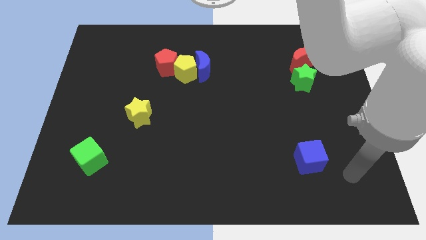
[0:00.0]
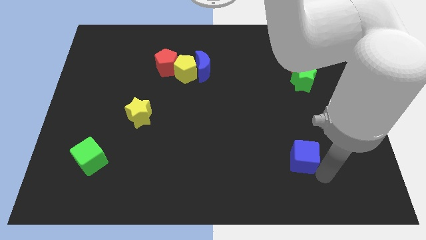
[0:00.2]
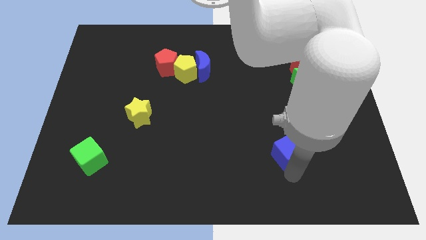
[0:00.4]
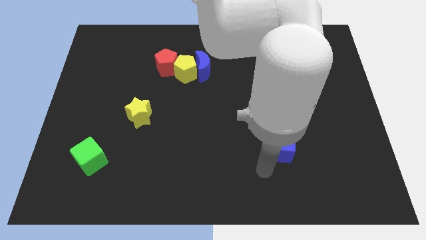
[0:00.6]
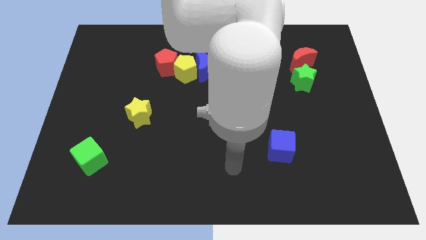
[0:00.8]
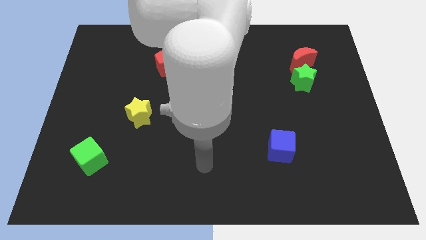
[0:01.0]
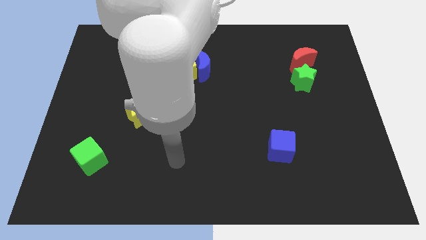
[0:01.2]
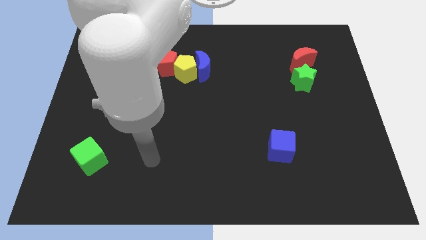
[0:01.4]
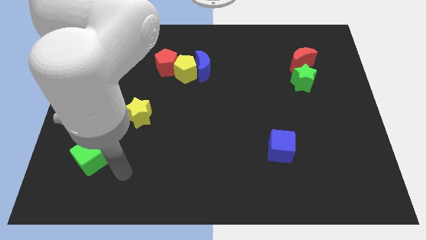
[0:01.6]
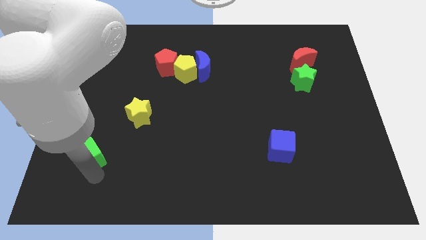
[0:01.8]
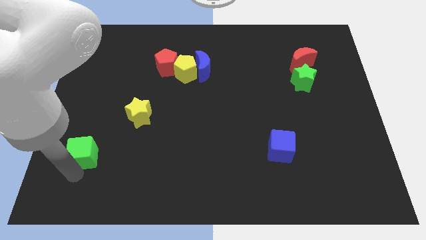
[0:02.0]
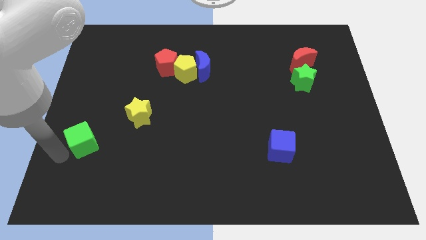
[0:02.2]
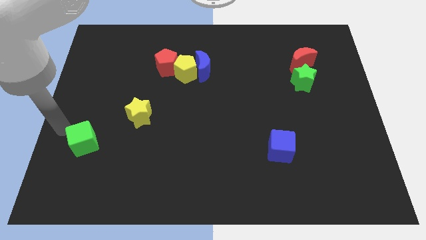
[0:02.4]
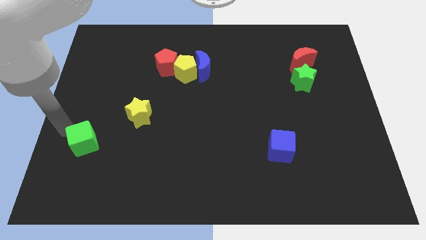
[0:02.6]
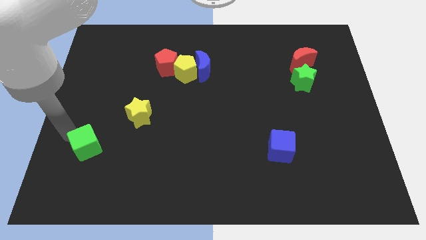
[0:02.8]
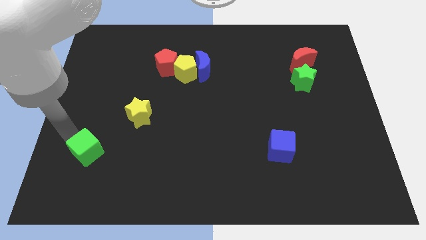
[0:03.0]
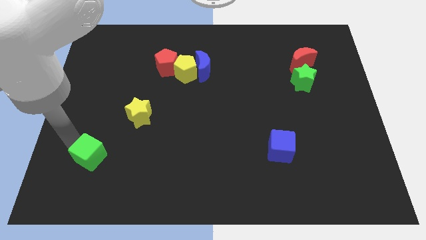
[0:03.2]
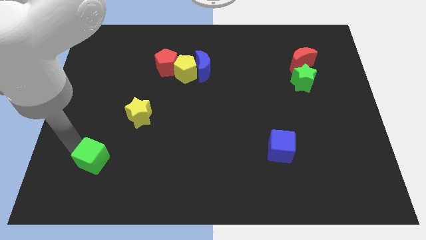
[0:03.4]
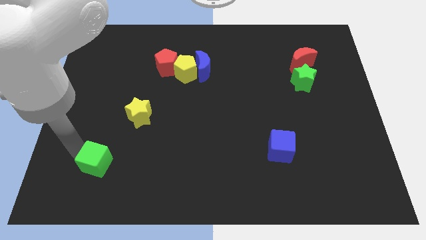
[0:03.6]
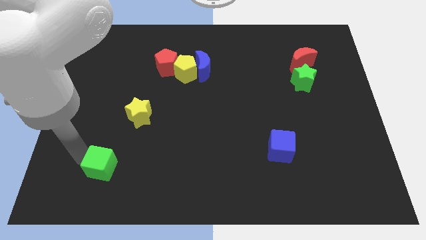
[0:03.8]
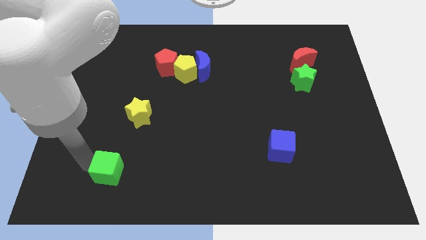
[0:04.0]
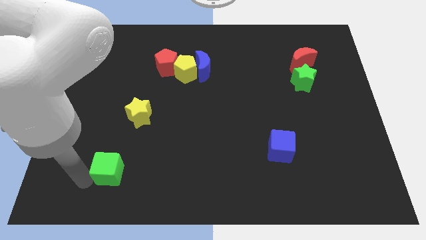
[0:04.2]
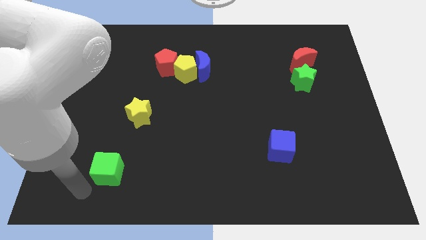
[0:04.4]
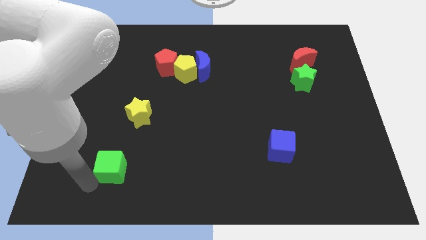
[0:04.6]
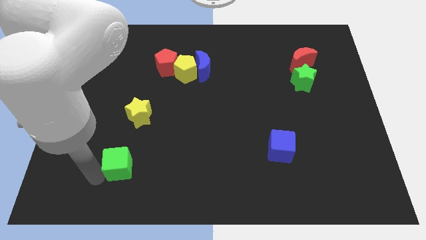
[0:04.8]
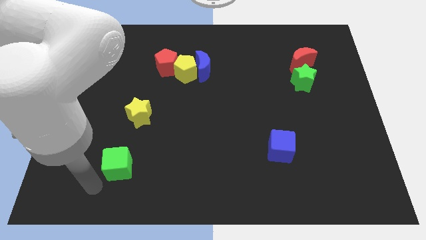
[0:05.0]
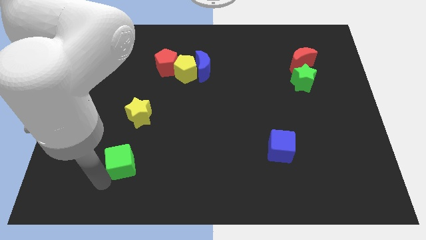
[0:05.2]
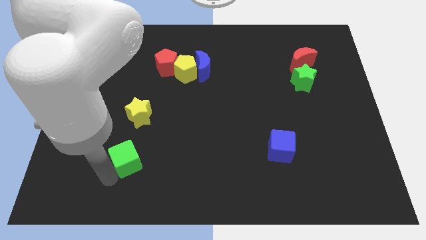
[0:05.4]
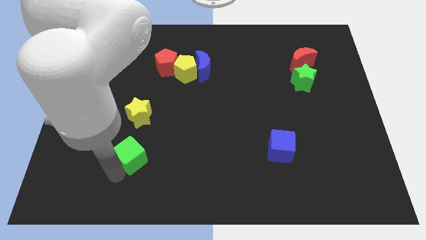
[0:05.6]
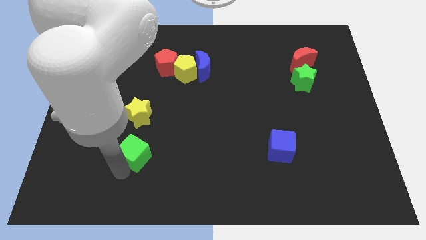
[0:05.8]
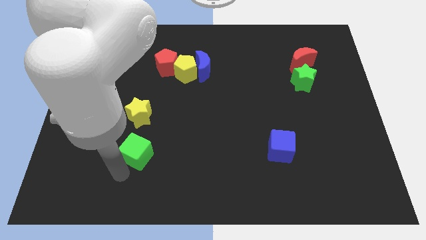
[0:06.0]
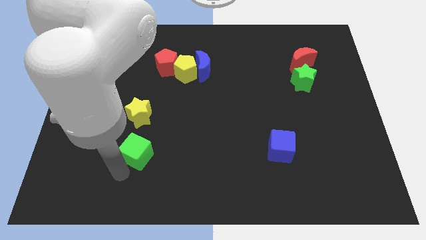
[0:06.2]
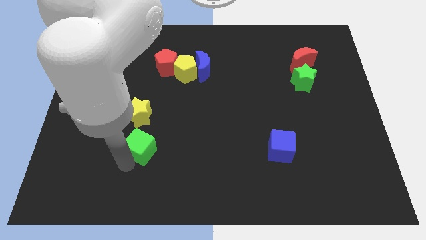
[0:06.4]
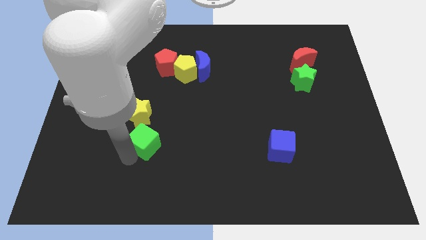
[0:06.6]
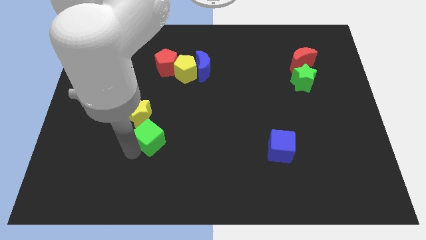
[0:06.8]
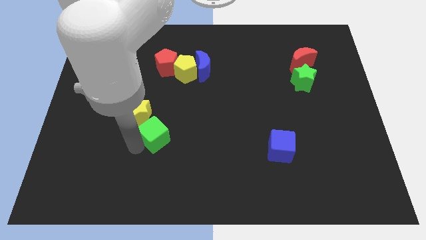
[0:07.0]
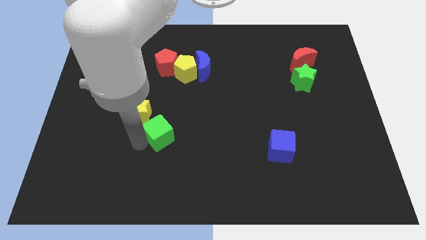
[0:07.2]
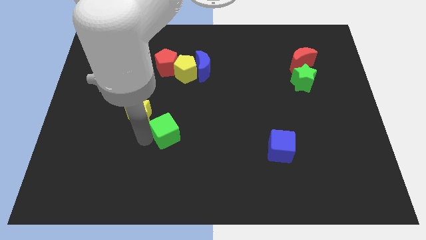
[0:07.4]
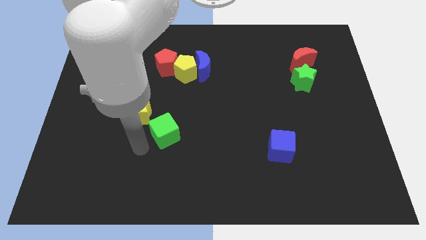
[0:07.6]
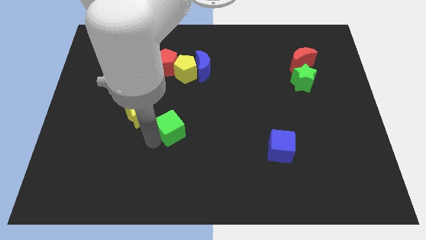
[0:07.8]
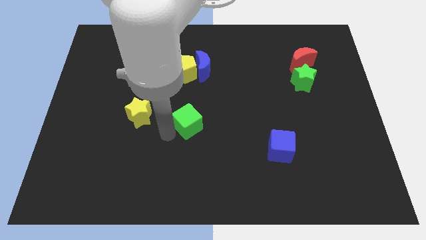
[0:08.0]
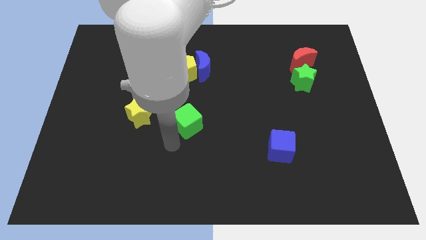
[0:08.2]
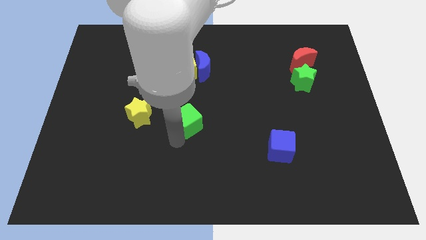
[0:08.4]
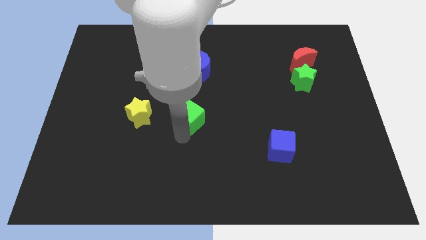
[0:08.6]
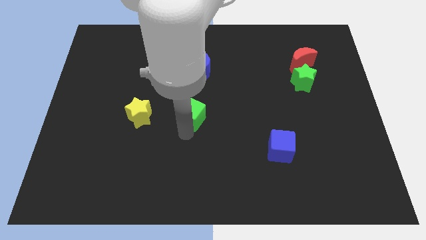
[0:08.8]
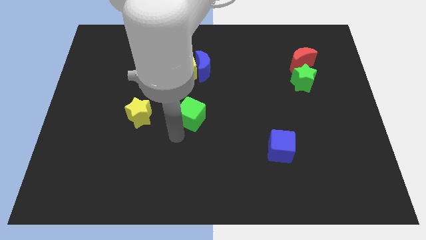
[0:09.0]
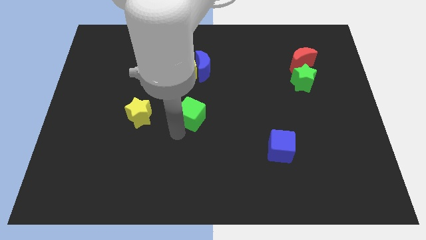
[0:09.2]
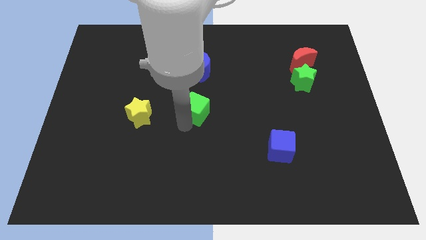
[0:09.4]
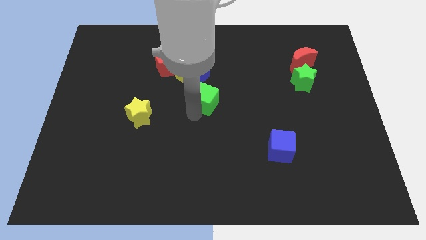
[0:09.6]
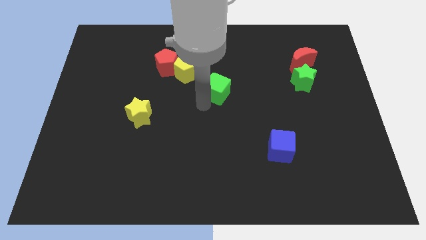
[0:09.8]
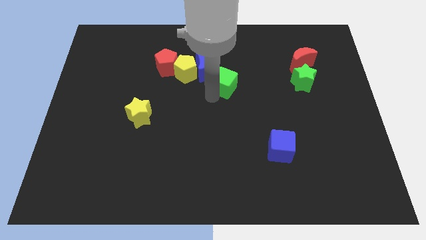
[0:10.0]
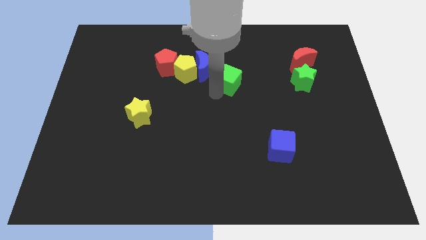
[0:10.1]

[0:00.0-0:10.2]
push the green cube to the right of the blue moon

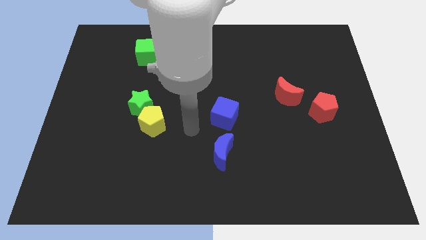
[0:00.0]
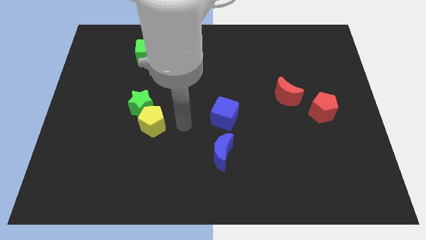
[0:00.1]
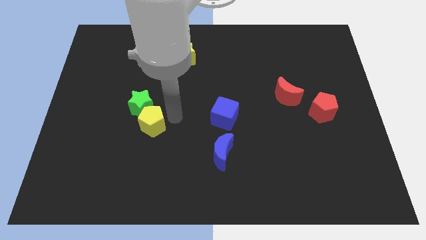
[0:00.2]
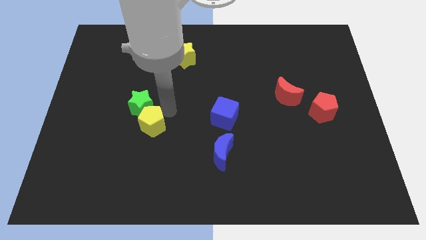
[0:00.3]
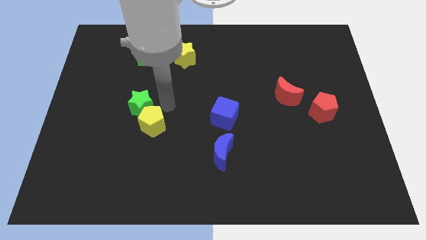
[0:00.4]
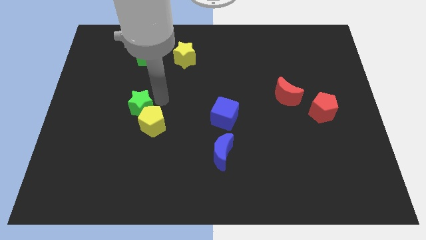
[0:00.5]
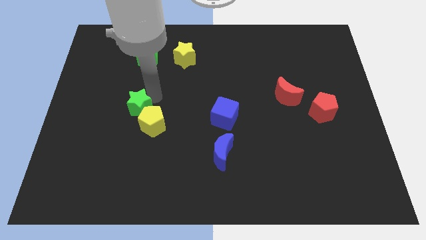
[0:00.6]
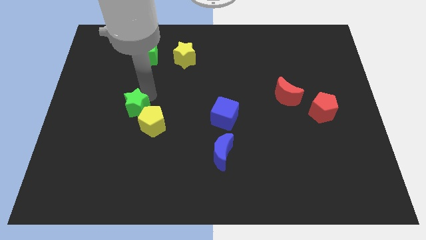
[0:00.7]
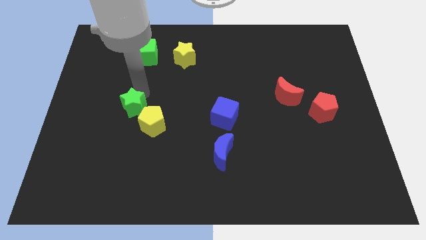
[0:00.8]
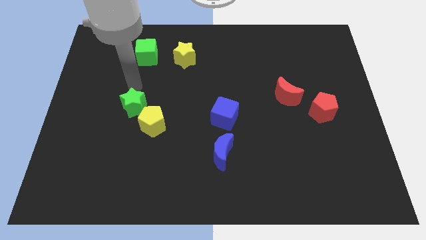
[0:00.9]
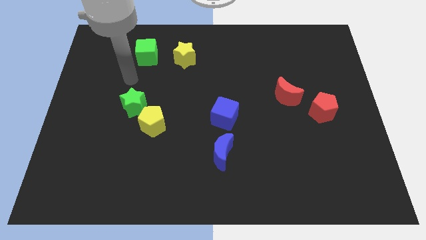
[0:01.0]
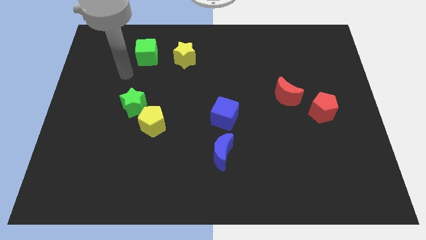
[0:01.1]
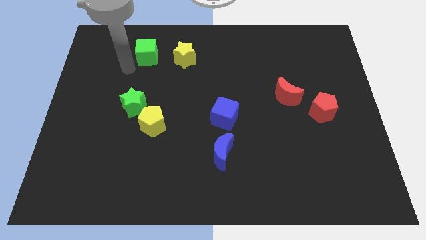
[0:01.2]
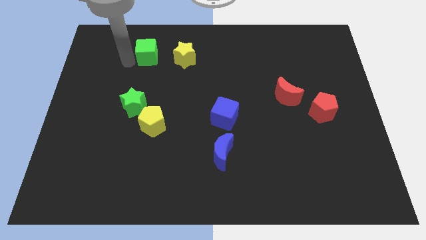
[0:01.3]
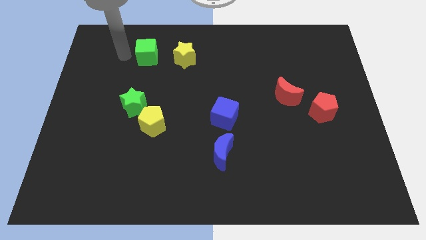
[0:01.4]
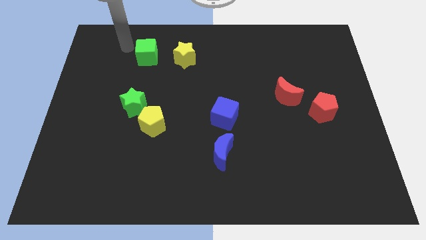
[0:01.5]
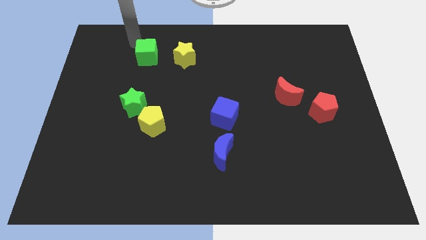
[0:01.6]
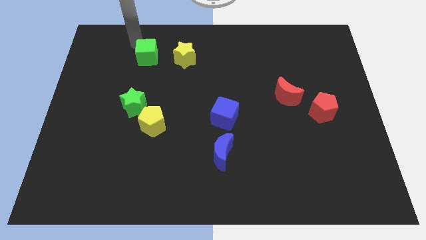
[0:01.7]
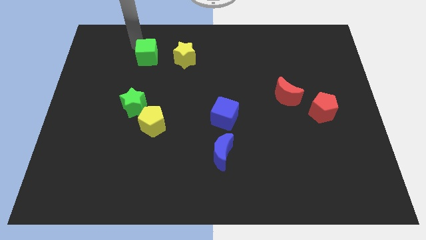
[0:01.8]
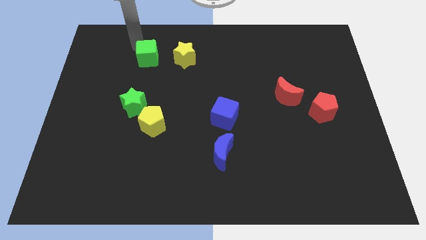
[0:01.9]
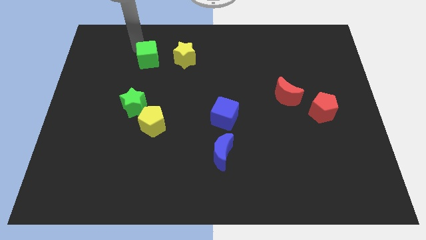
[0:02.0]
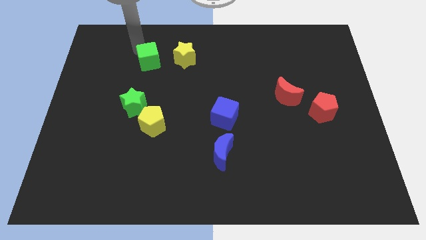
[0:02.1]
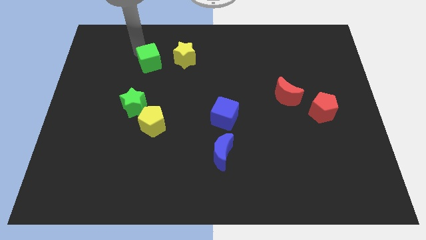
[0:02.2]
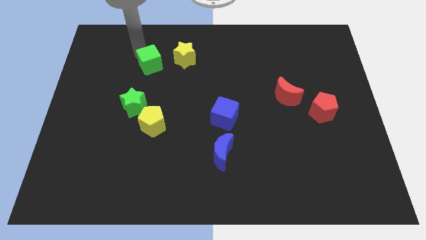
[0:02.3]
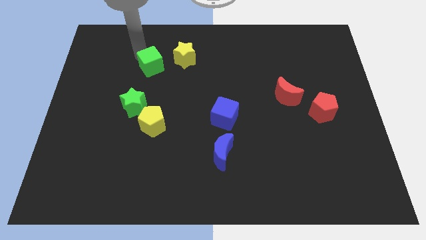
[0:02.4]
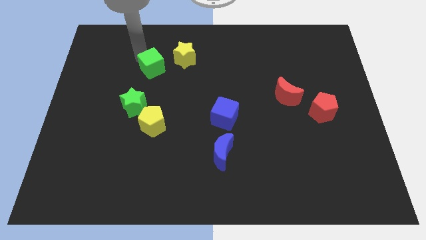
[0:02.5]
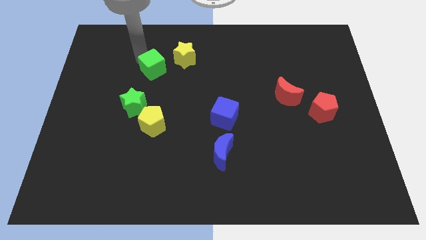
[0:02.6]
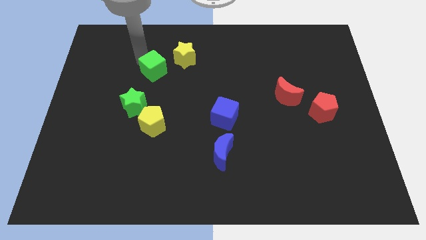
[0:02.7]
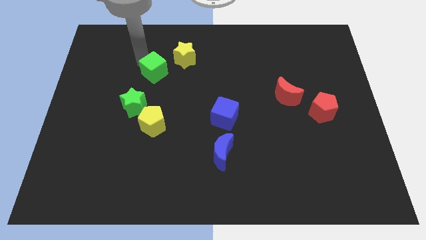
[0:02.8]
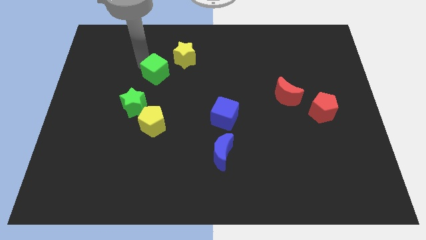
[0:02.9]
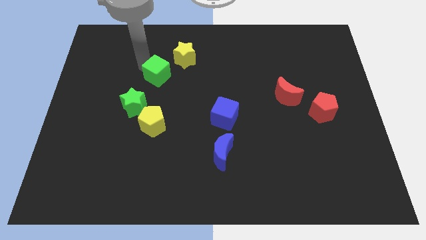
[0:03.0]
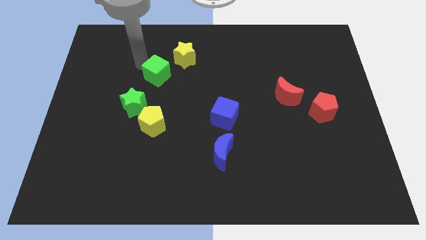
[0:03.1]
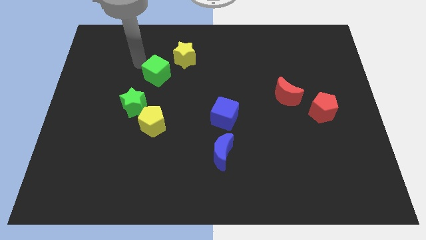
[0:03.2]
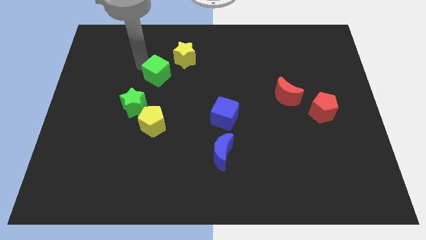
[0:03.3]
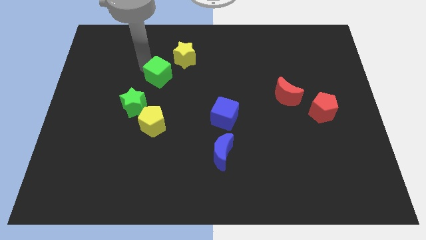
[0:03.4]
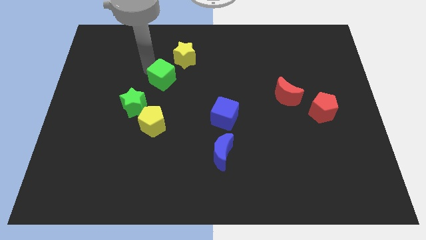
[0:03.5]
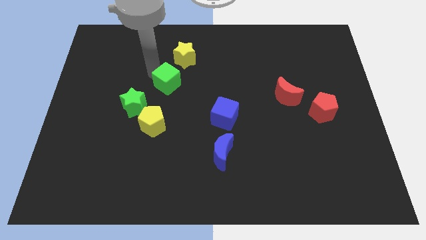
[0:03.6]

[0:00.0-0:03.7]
push the green cube to the bottom of the yellow star
